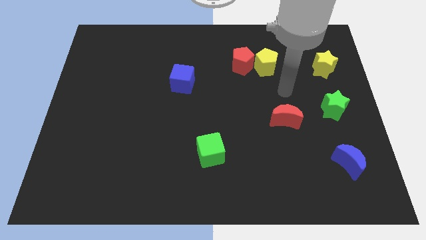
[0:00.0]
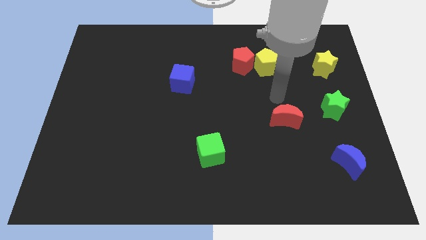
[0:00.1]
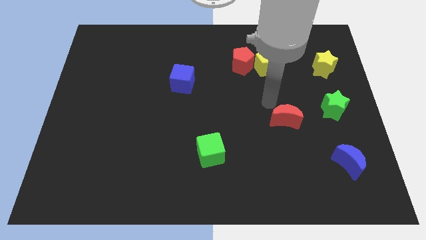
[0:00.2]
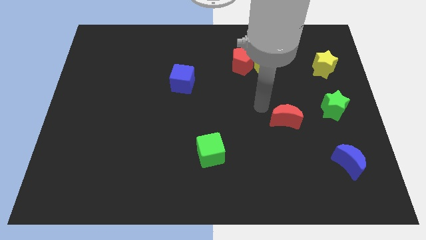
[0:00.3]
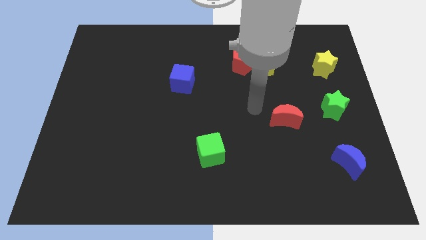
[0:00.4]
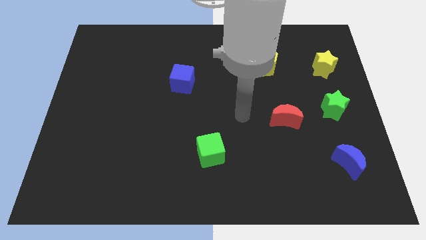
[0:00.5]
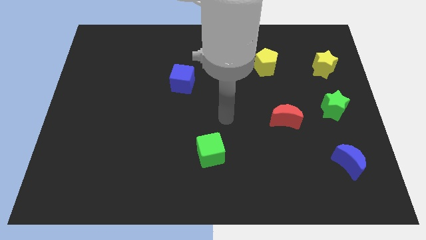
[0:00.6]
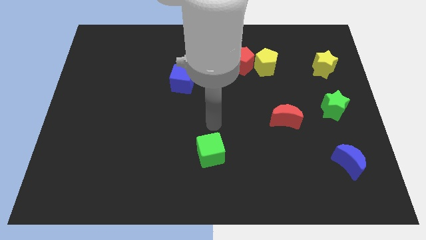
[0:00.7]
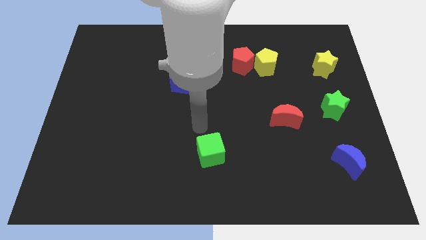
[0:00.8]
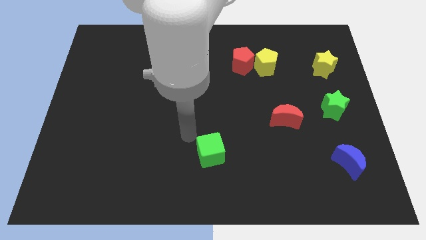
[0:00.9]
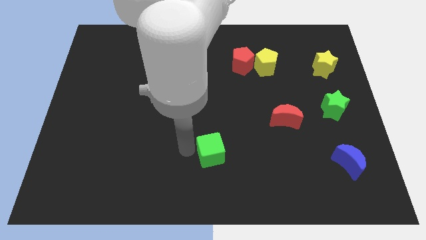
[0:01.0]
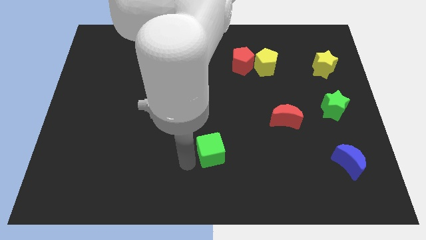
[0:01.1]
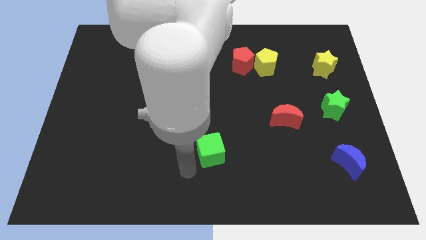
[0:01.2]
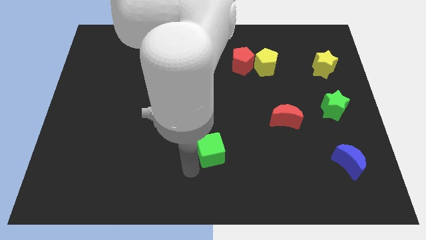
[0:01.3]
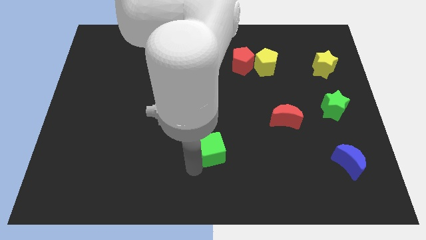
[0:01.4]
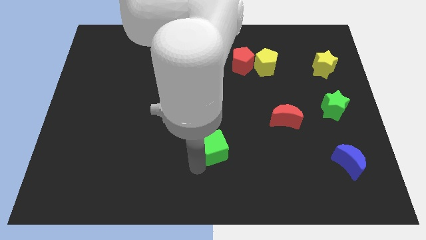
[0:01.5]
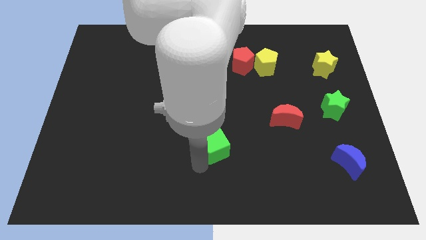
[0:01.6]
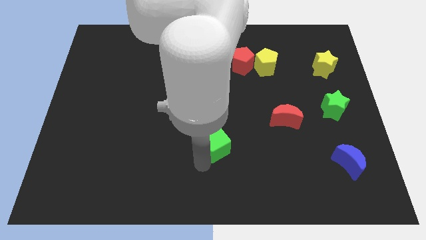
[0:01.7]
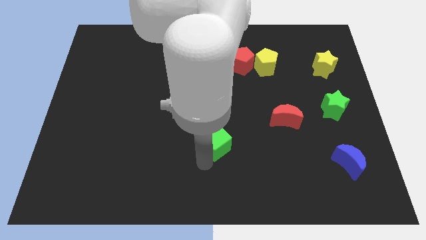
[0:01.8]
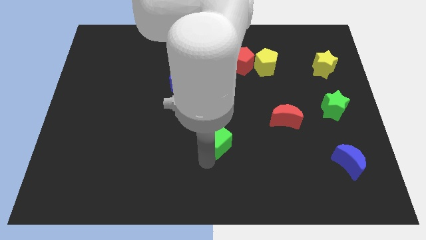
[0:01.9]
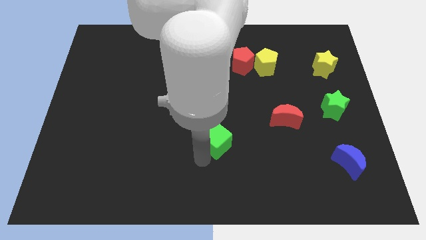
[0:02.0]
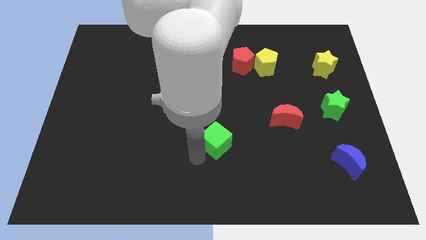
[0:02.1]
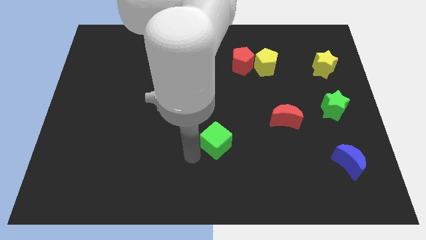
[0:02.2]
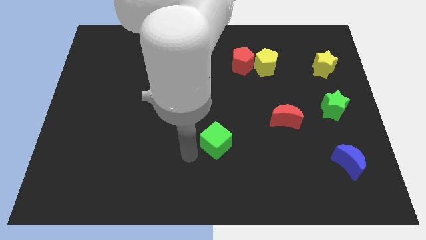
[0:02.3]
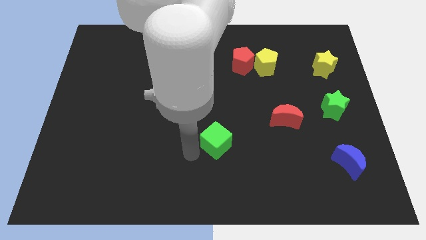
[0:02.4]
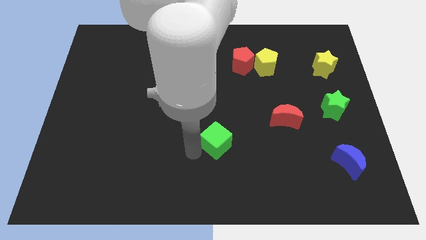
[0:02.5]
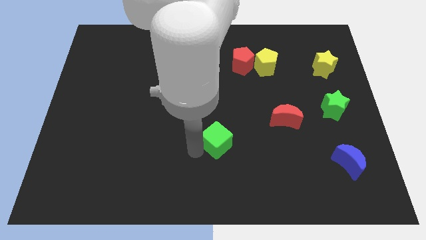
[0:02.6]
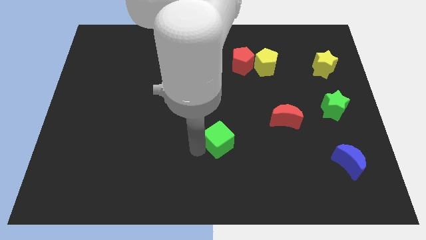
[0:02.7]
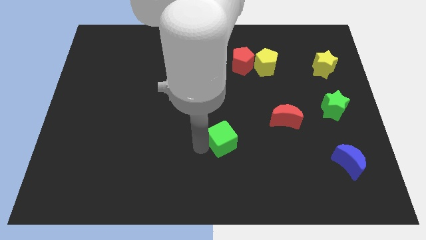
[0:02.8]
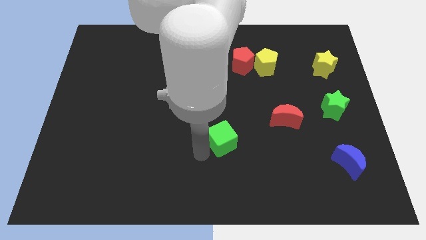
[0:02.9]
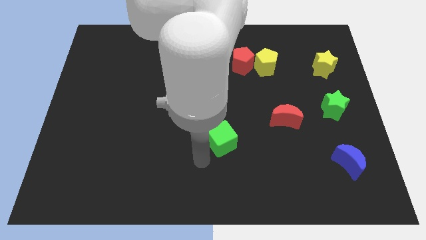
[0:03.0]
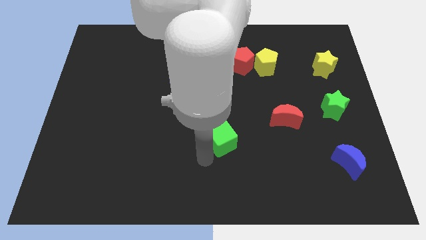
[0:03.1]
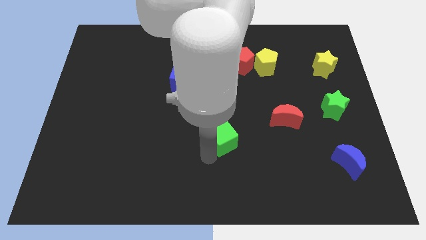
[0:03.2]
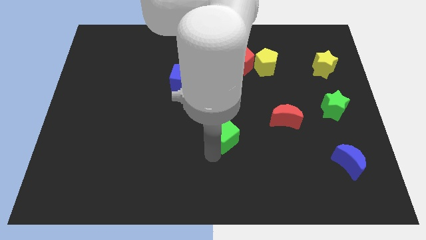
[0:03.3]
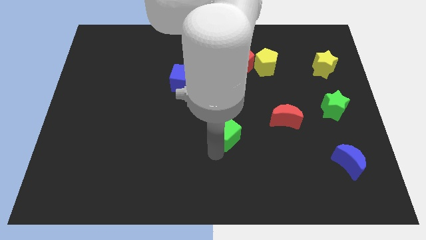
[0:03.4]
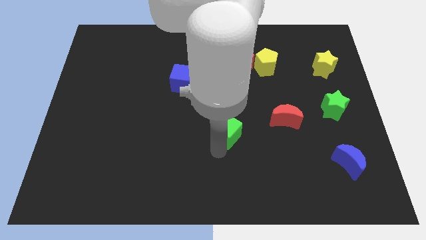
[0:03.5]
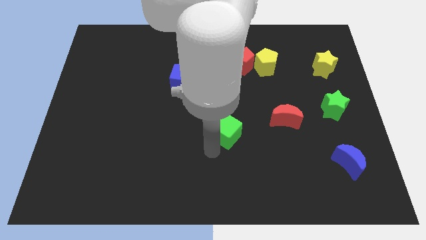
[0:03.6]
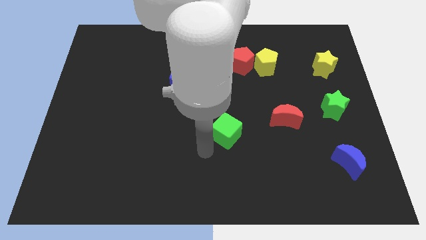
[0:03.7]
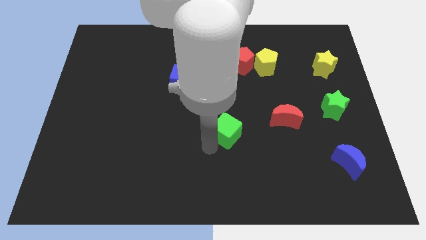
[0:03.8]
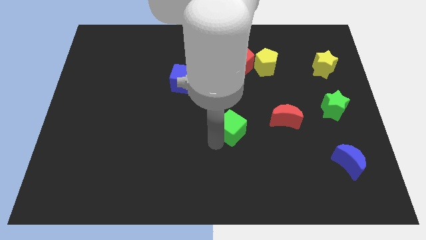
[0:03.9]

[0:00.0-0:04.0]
slightly slide the green cube diagonally upwards and right

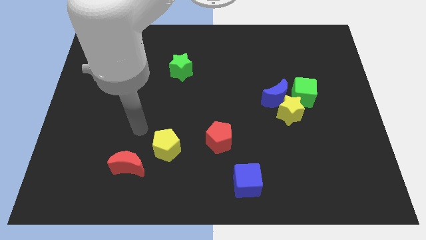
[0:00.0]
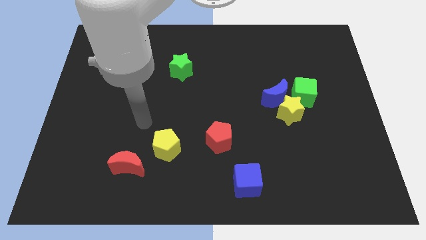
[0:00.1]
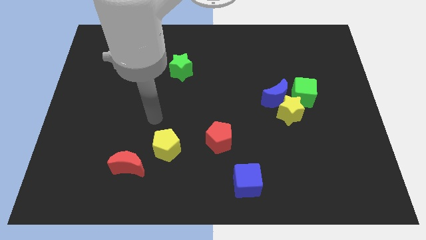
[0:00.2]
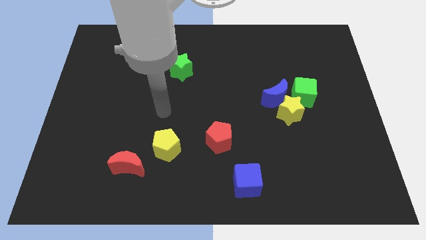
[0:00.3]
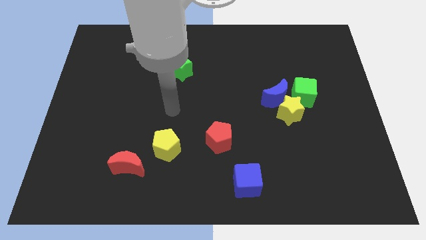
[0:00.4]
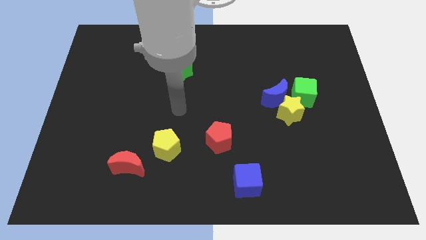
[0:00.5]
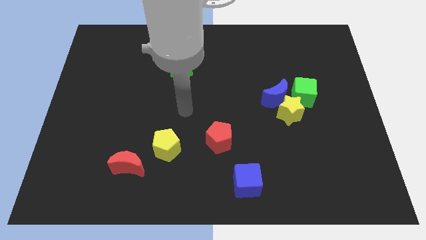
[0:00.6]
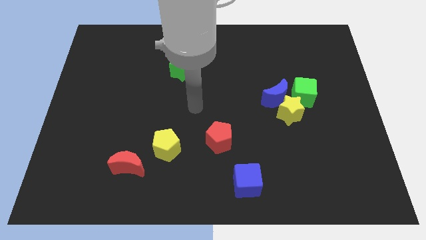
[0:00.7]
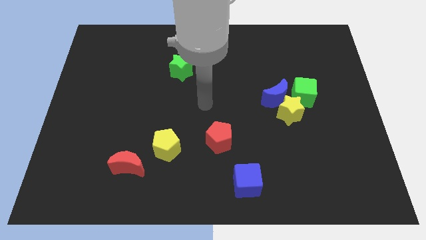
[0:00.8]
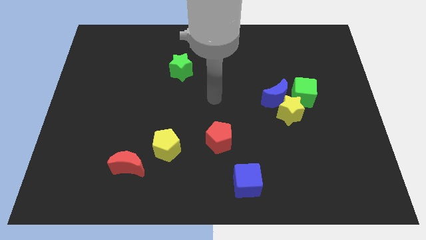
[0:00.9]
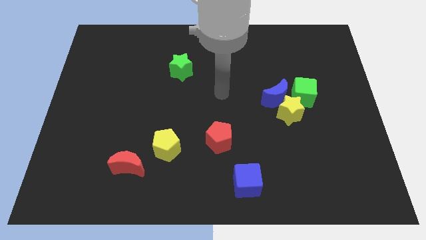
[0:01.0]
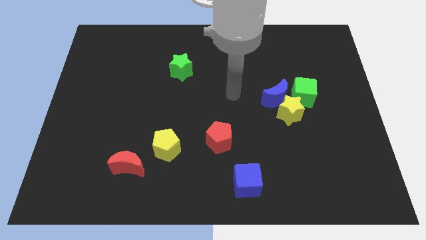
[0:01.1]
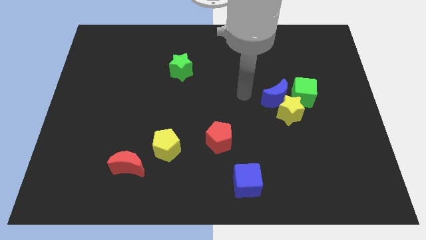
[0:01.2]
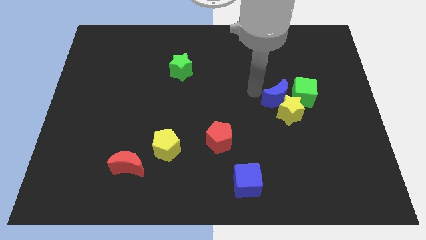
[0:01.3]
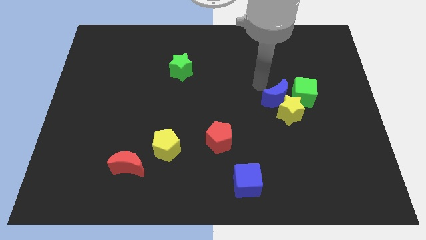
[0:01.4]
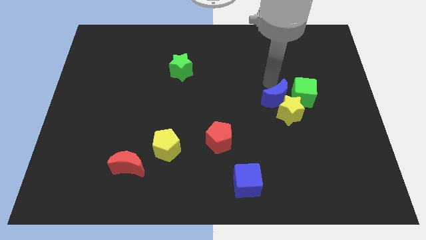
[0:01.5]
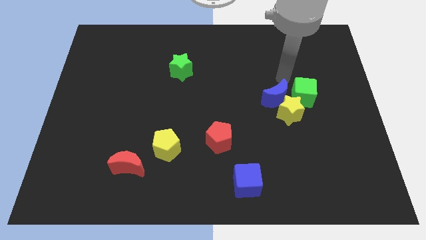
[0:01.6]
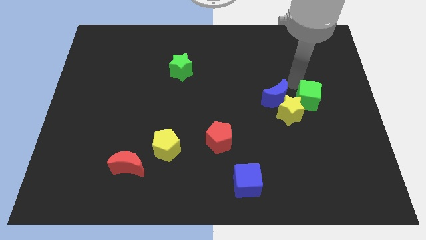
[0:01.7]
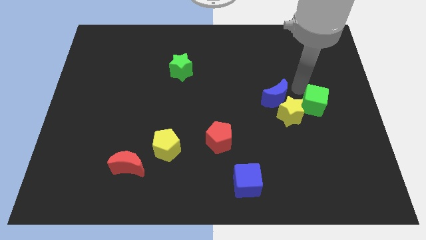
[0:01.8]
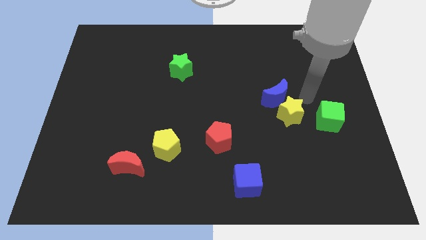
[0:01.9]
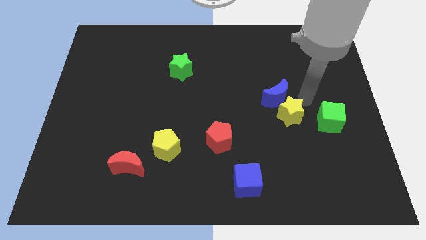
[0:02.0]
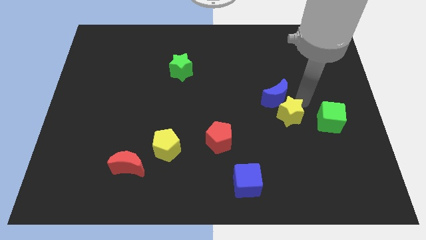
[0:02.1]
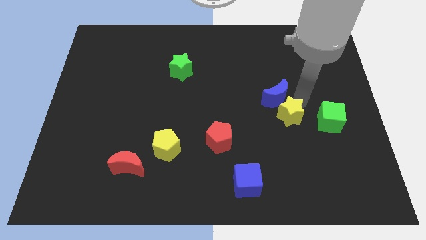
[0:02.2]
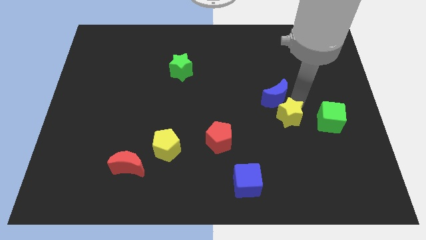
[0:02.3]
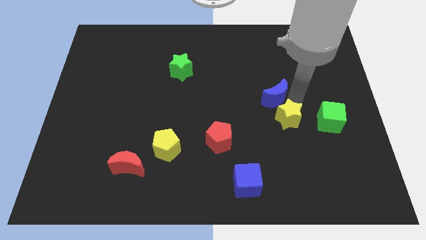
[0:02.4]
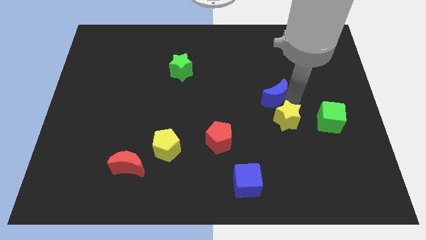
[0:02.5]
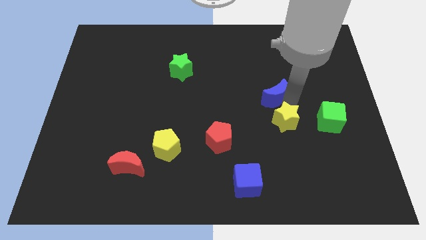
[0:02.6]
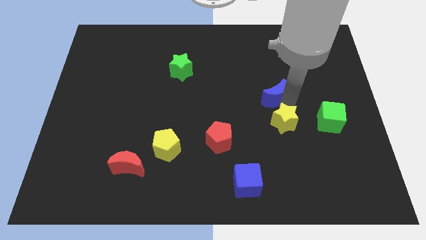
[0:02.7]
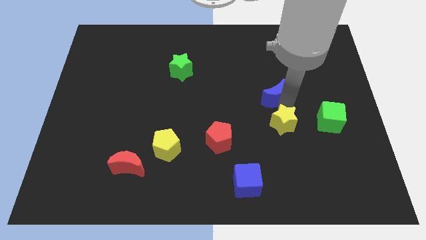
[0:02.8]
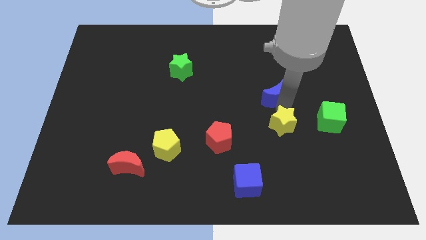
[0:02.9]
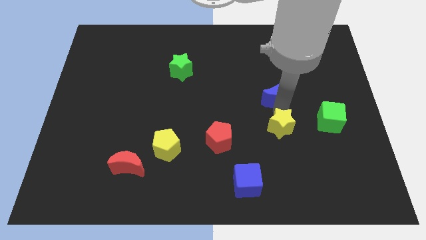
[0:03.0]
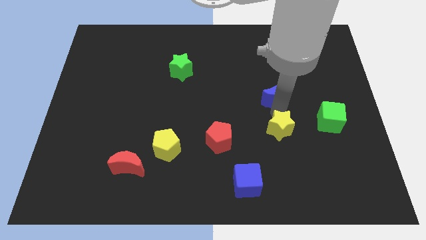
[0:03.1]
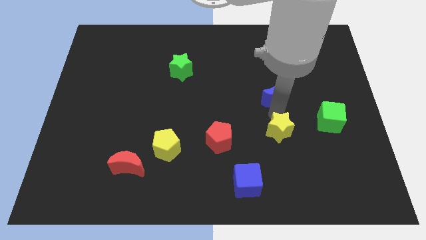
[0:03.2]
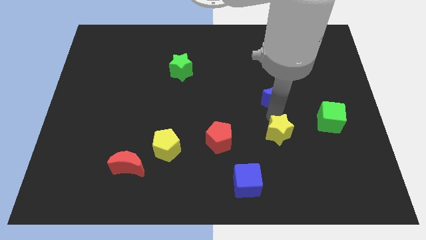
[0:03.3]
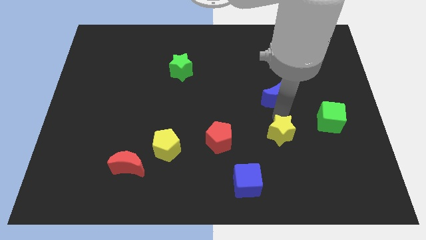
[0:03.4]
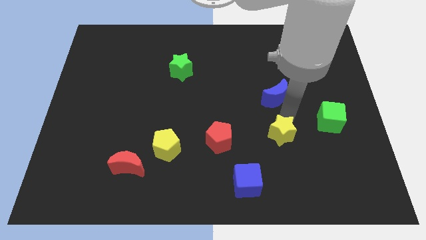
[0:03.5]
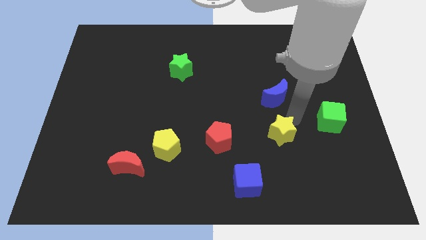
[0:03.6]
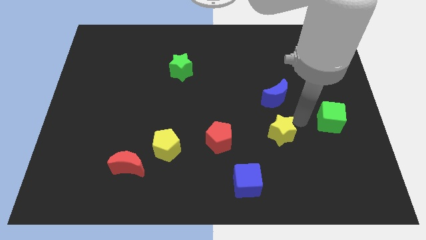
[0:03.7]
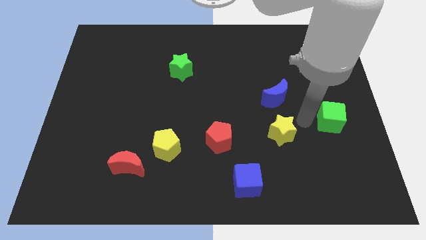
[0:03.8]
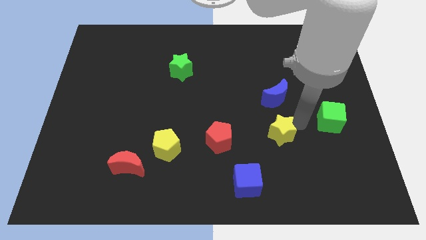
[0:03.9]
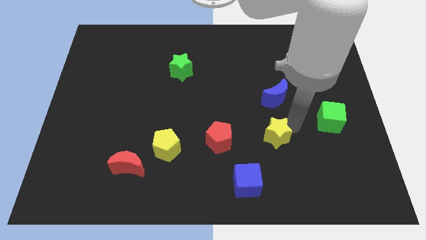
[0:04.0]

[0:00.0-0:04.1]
push the yellow star down and left diagonally a little bit
